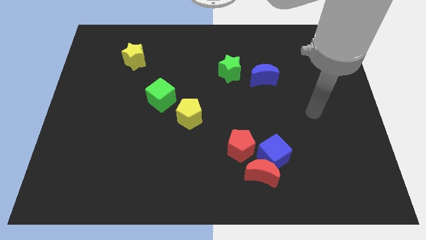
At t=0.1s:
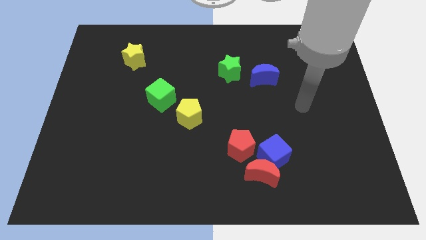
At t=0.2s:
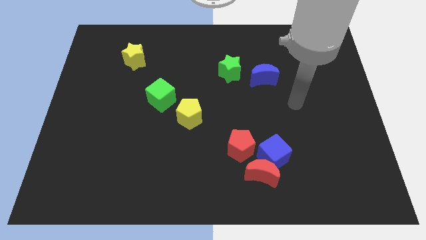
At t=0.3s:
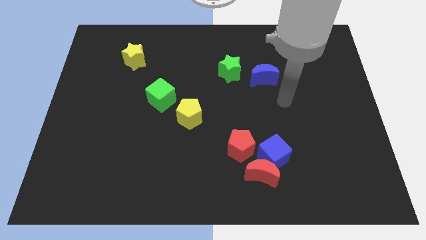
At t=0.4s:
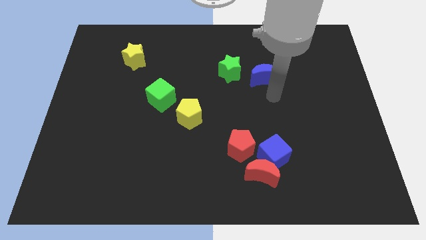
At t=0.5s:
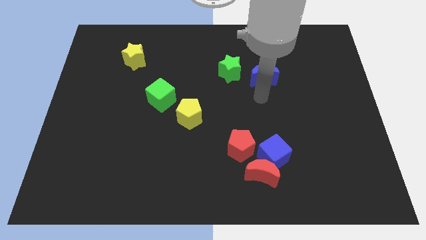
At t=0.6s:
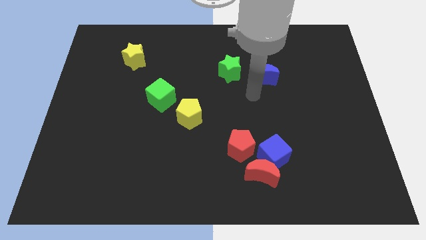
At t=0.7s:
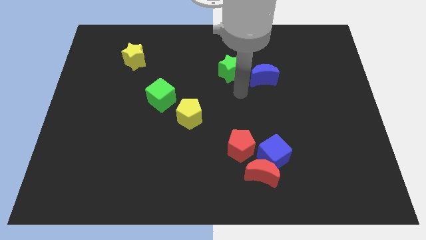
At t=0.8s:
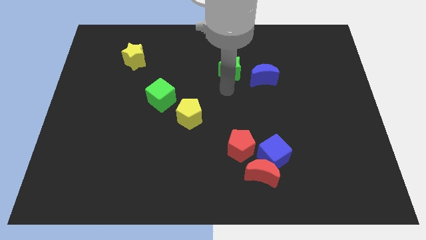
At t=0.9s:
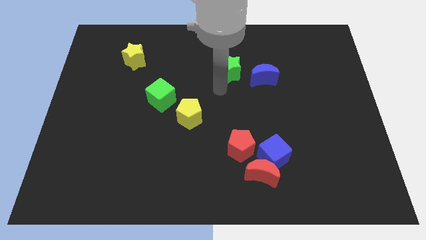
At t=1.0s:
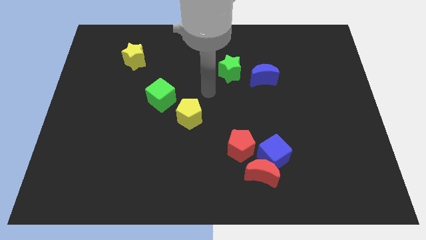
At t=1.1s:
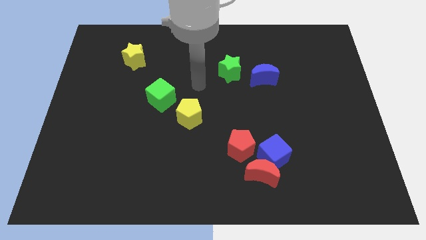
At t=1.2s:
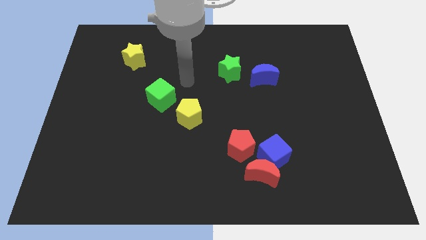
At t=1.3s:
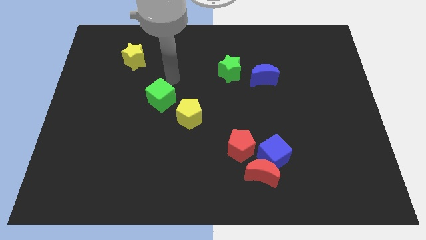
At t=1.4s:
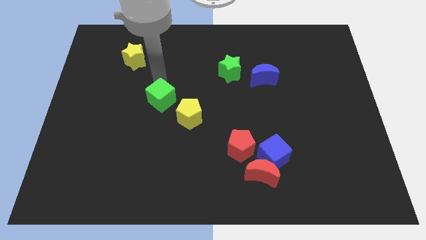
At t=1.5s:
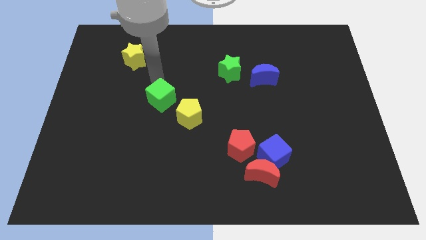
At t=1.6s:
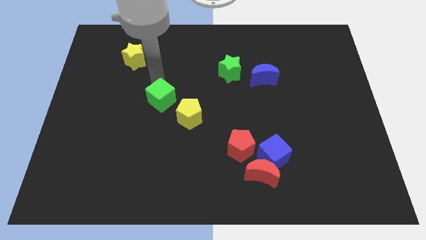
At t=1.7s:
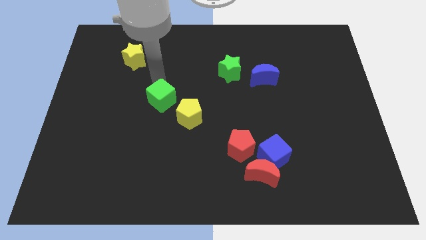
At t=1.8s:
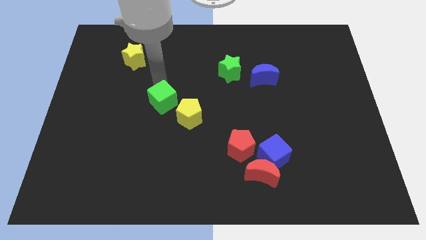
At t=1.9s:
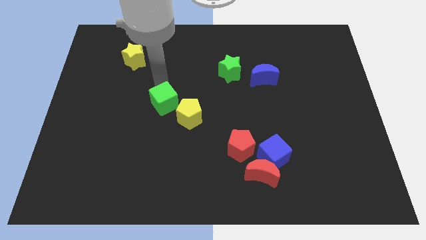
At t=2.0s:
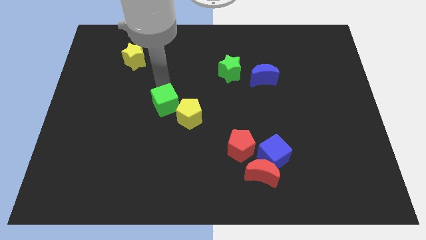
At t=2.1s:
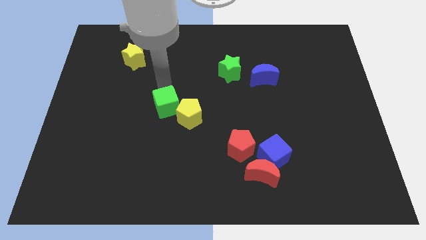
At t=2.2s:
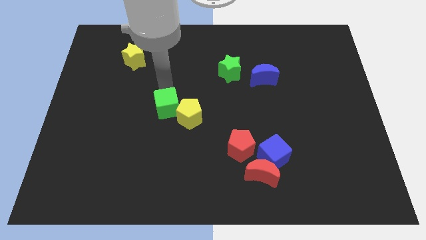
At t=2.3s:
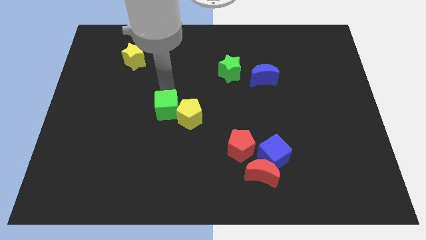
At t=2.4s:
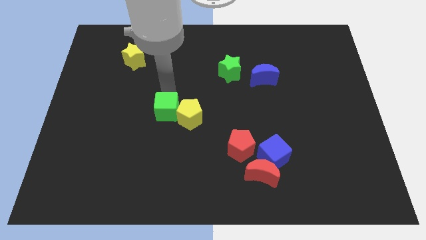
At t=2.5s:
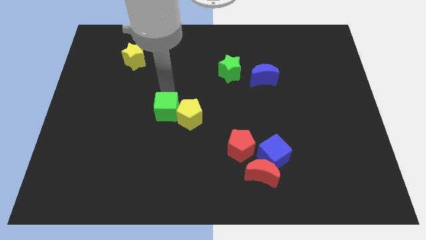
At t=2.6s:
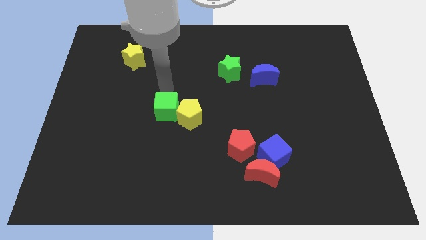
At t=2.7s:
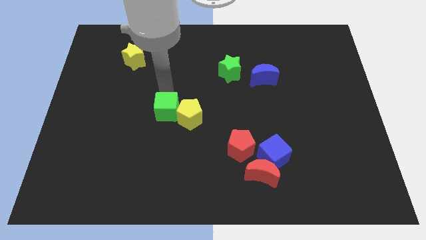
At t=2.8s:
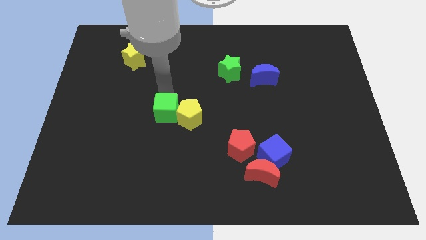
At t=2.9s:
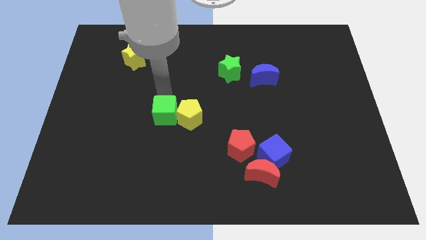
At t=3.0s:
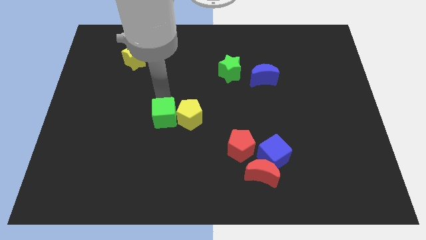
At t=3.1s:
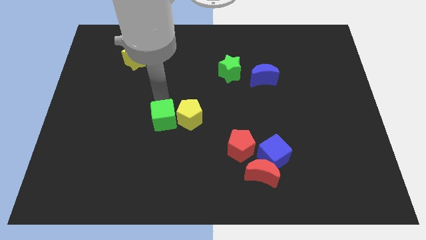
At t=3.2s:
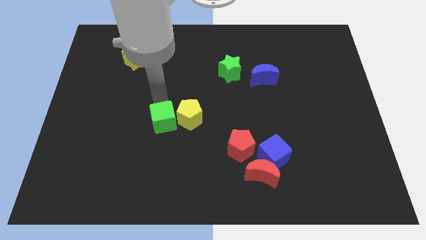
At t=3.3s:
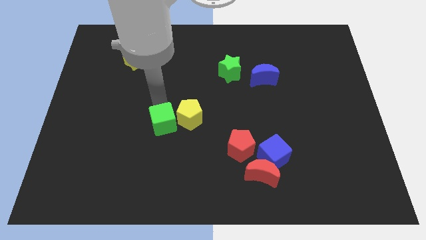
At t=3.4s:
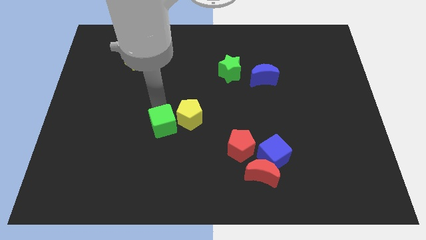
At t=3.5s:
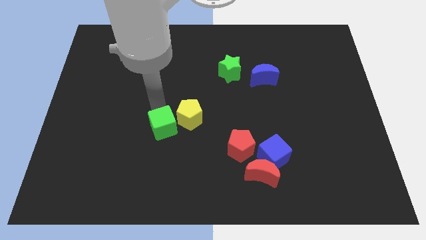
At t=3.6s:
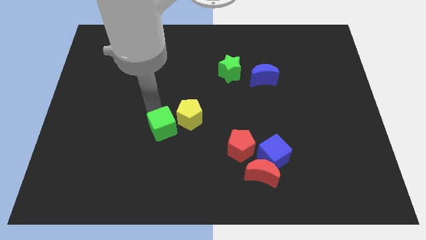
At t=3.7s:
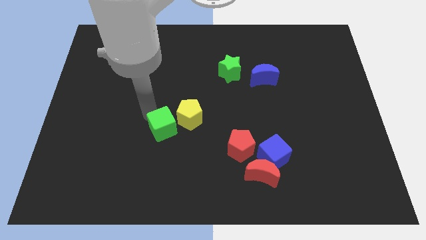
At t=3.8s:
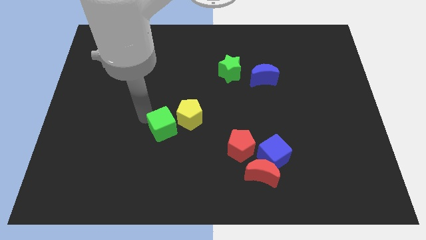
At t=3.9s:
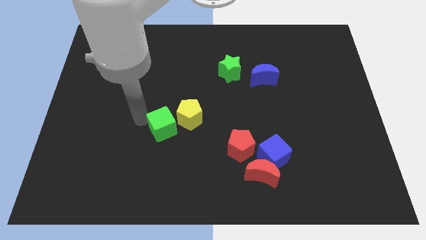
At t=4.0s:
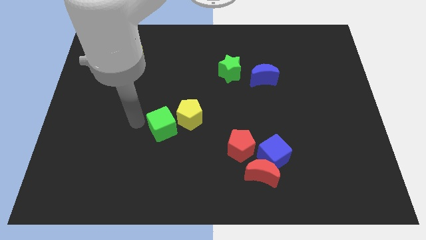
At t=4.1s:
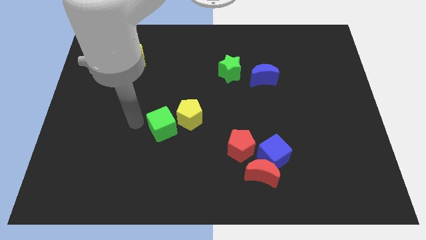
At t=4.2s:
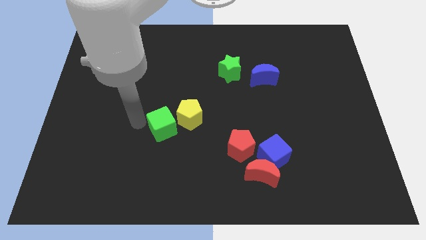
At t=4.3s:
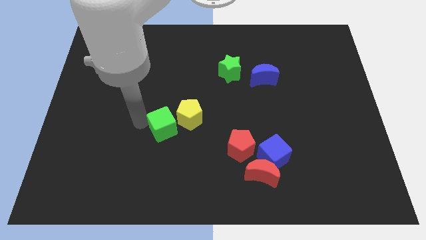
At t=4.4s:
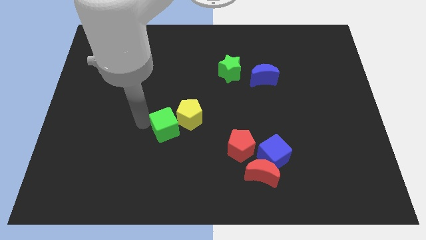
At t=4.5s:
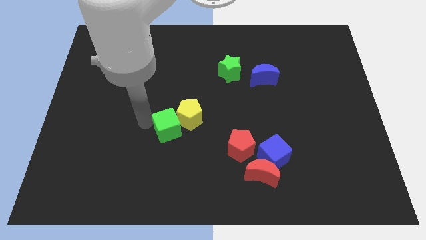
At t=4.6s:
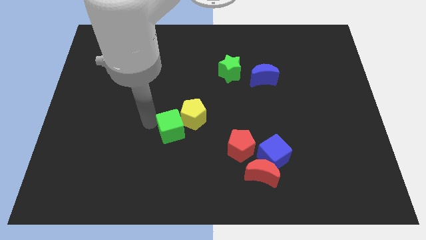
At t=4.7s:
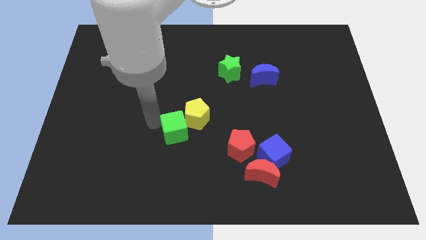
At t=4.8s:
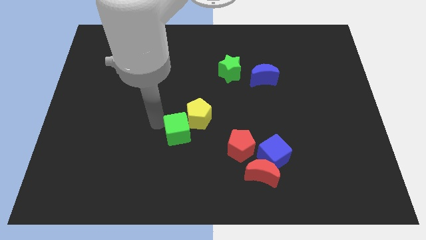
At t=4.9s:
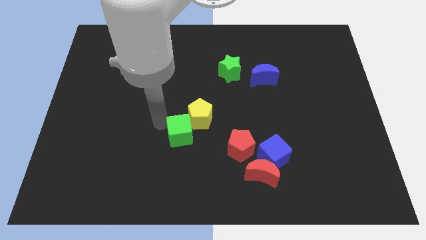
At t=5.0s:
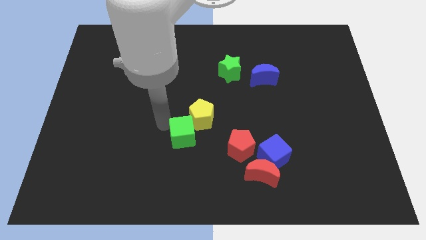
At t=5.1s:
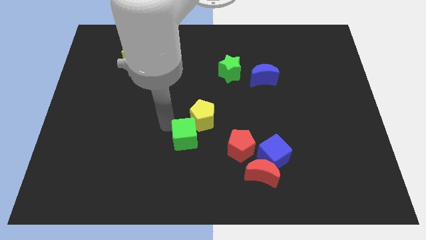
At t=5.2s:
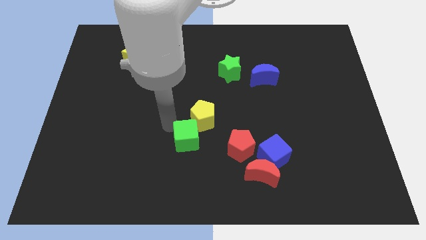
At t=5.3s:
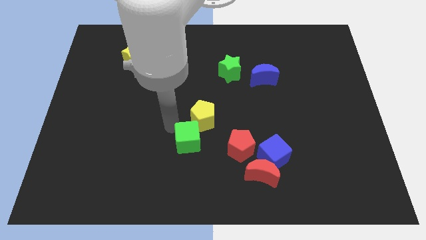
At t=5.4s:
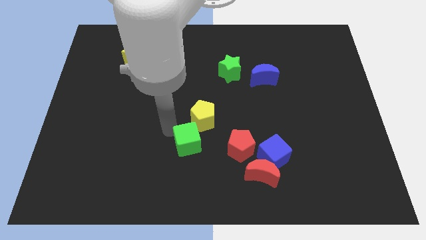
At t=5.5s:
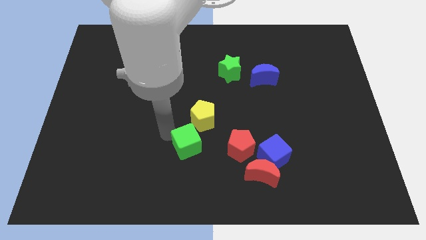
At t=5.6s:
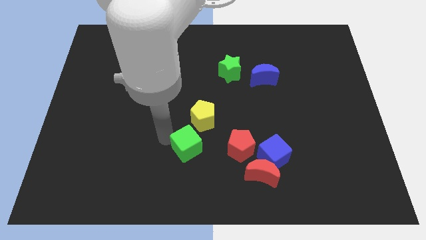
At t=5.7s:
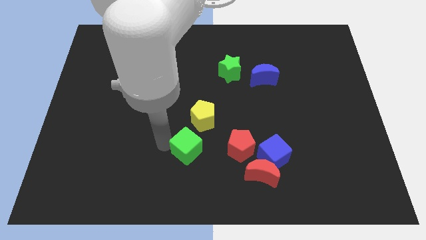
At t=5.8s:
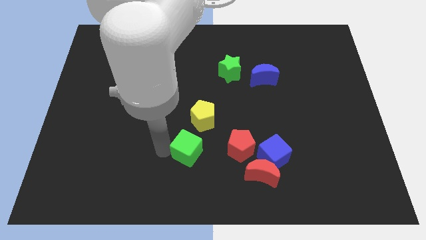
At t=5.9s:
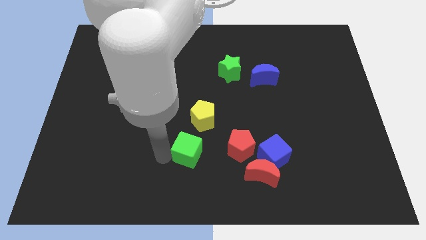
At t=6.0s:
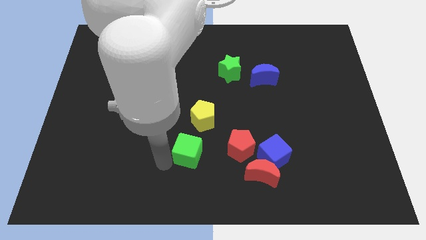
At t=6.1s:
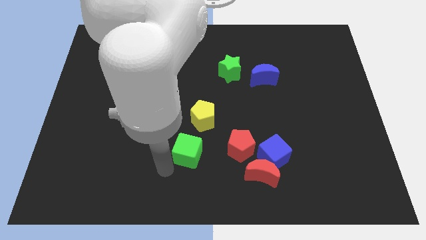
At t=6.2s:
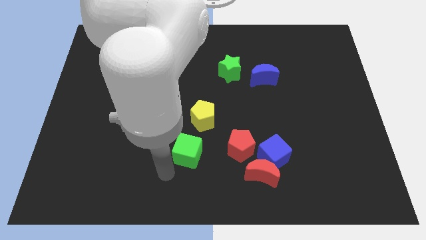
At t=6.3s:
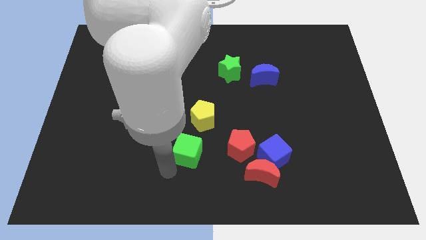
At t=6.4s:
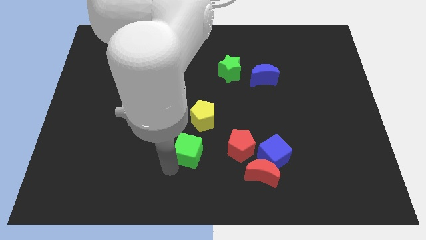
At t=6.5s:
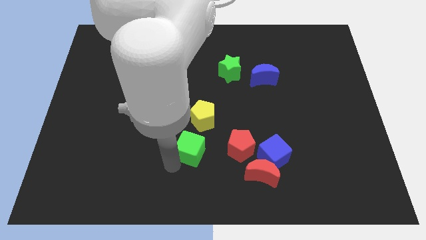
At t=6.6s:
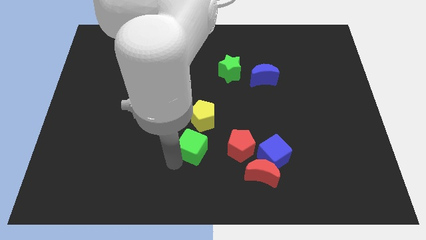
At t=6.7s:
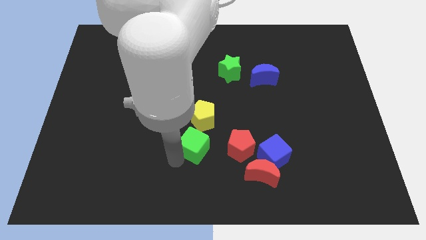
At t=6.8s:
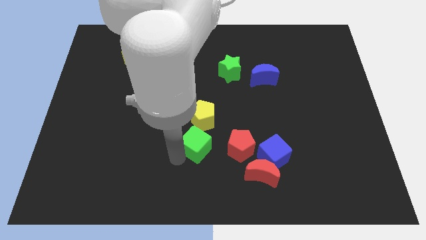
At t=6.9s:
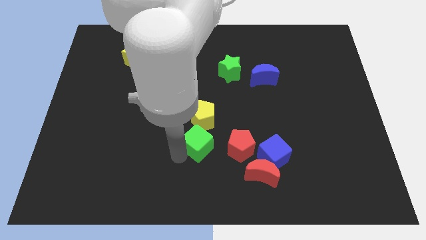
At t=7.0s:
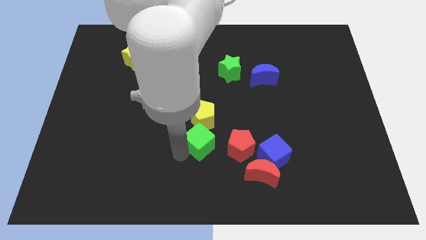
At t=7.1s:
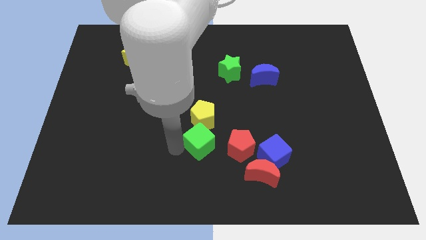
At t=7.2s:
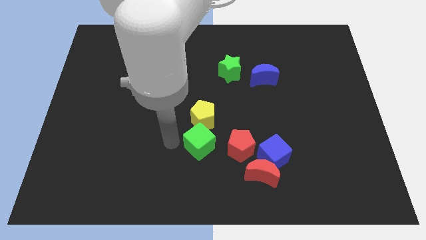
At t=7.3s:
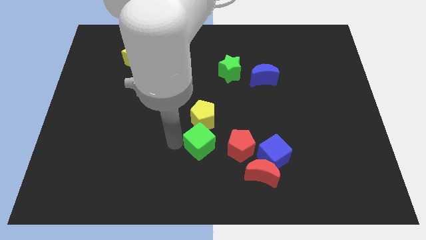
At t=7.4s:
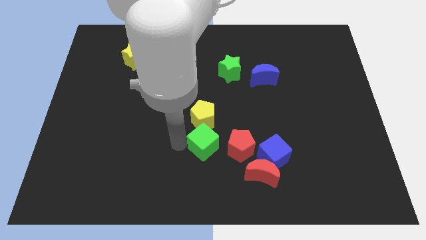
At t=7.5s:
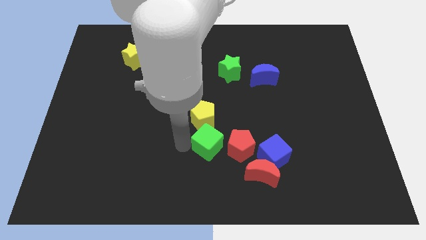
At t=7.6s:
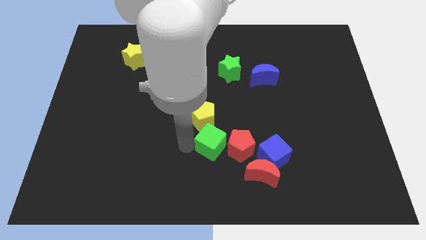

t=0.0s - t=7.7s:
put the green cube close to the red pentagon
